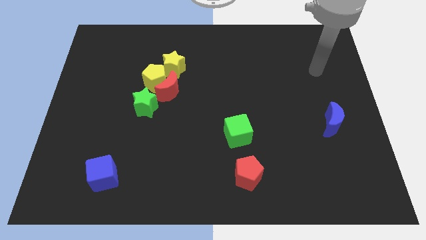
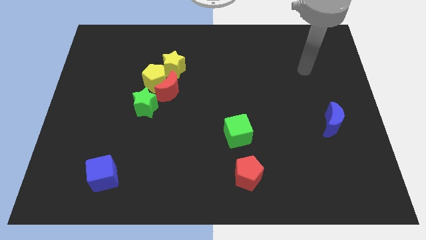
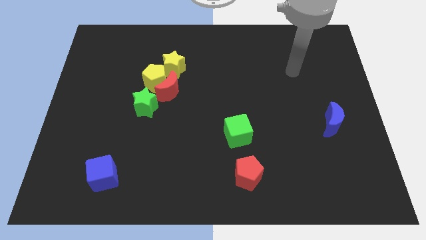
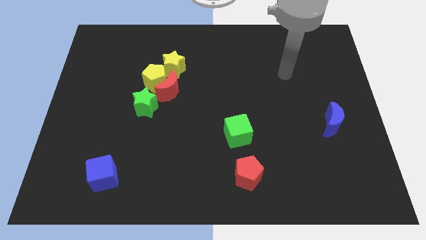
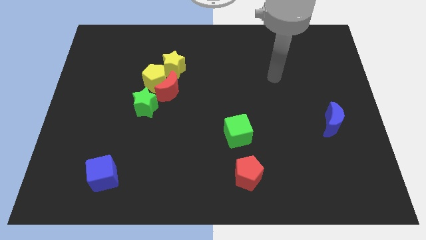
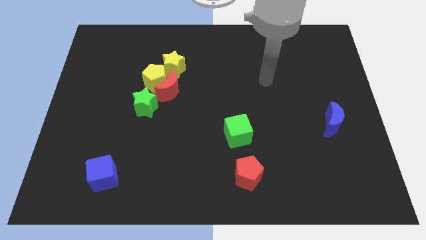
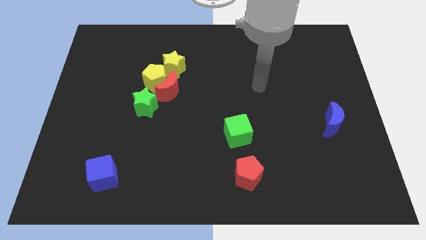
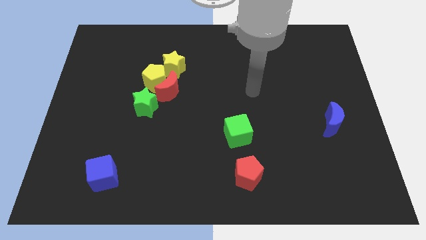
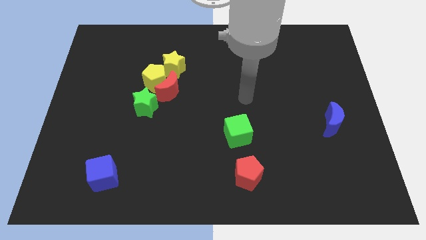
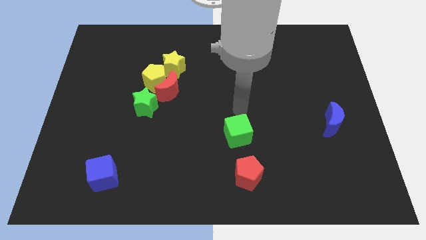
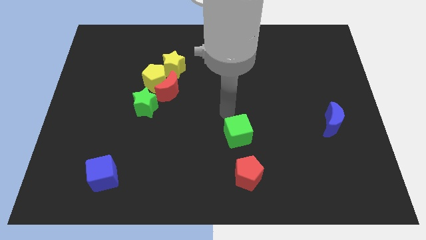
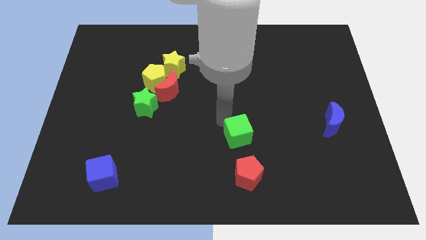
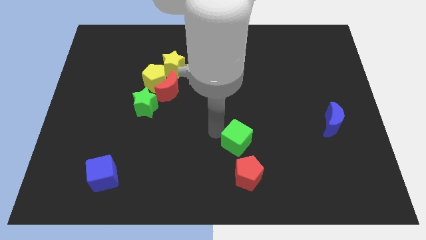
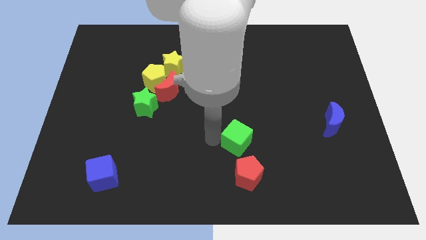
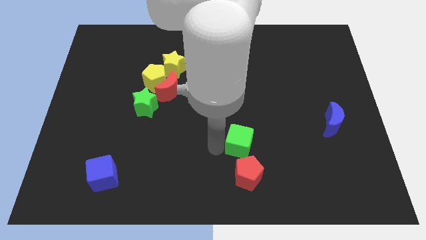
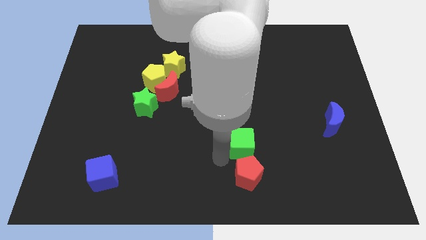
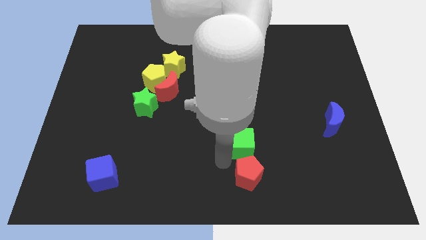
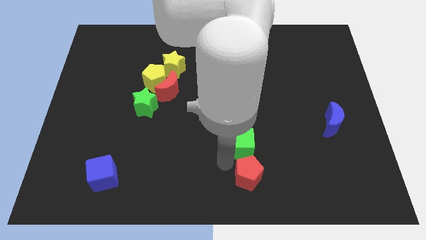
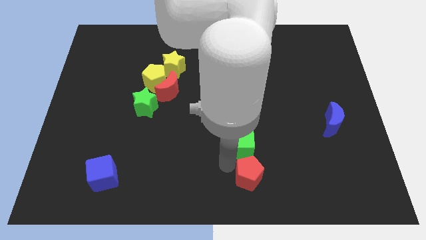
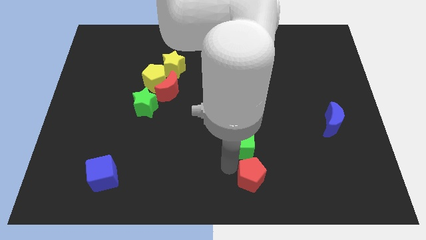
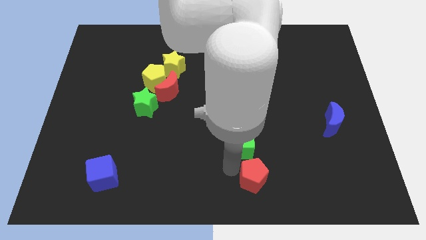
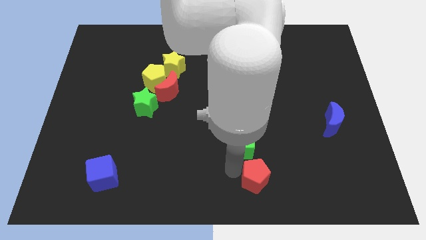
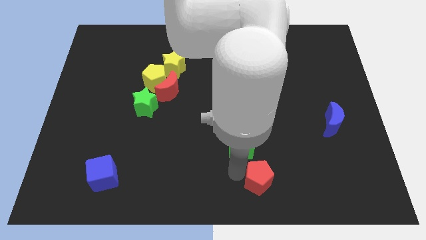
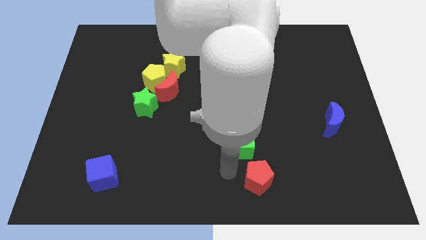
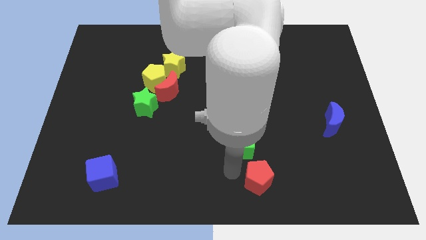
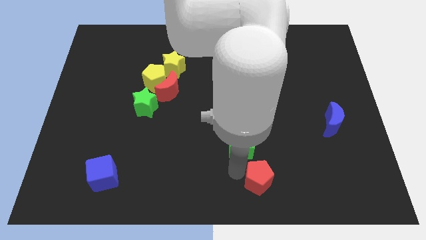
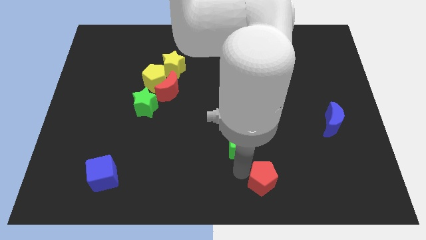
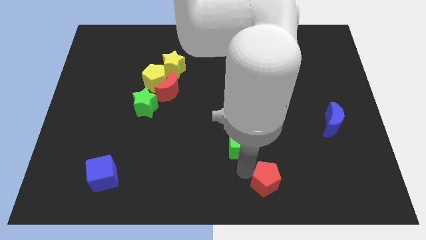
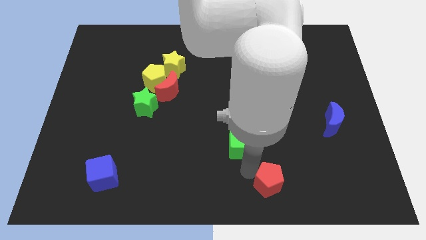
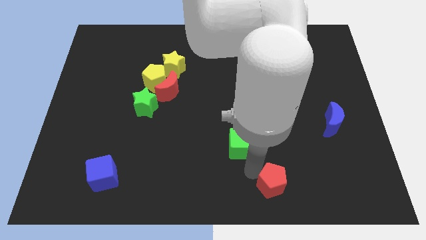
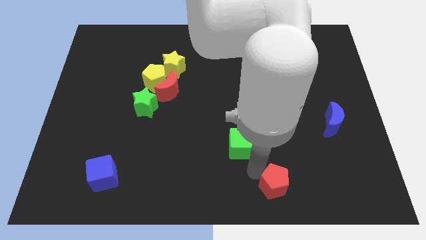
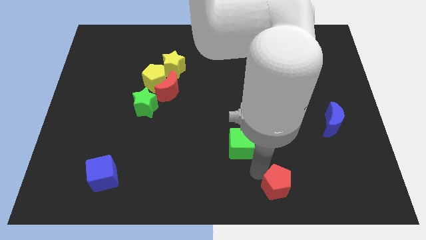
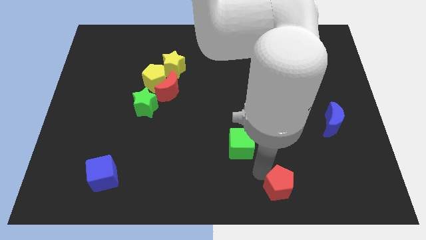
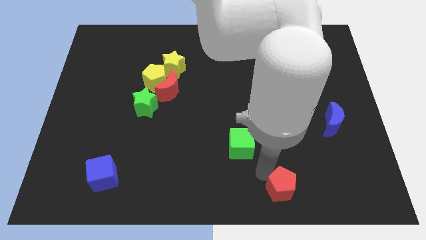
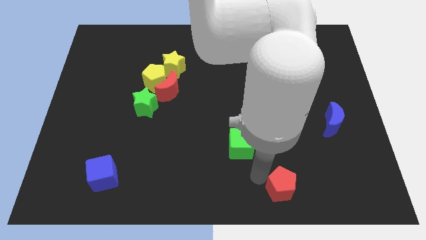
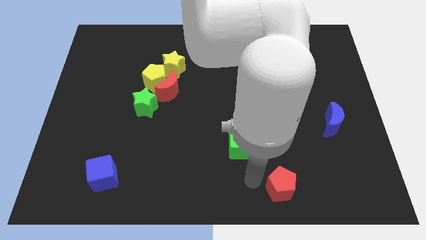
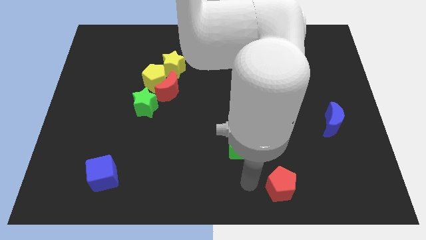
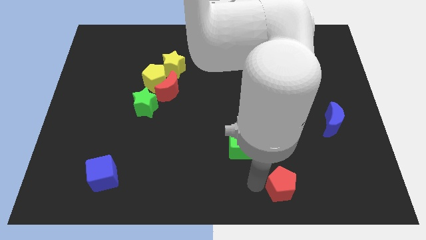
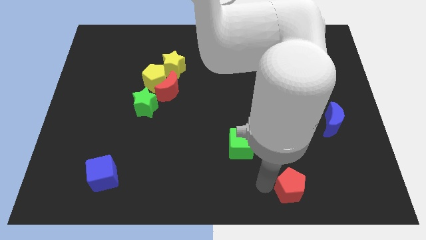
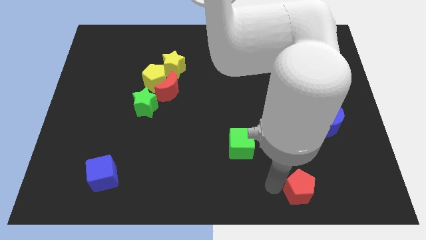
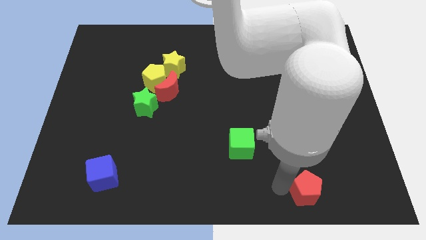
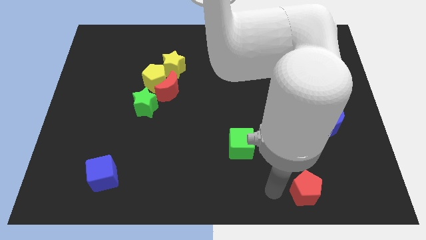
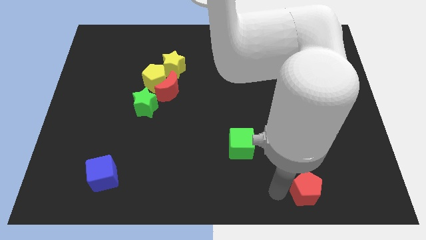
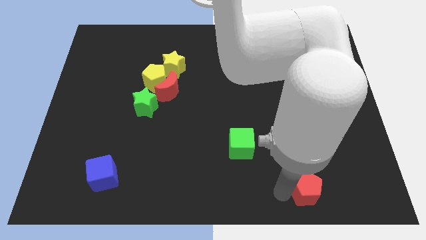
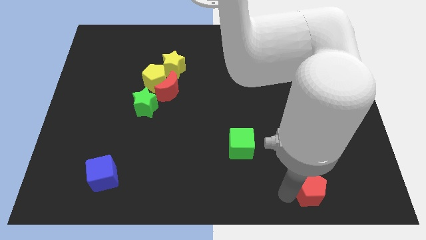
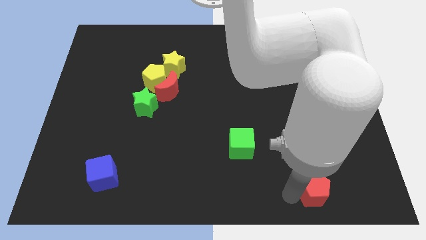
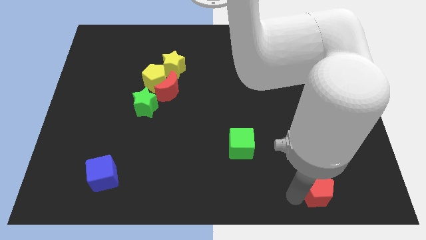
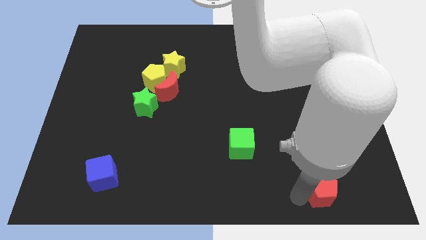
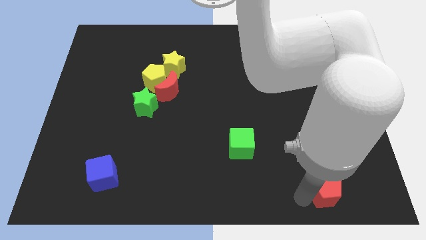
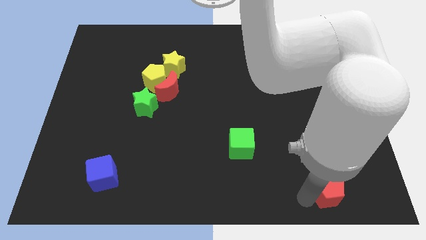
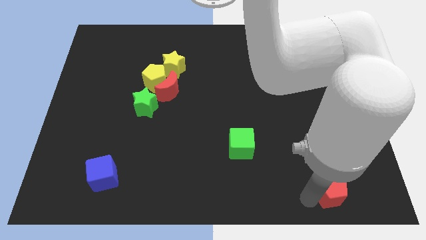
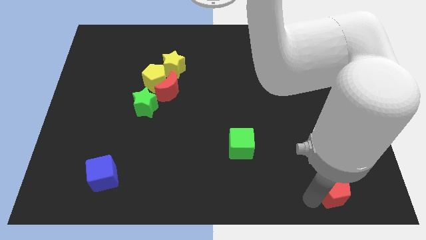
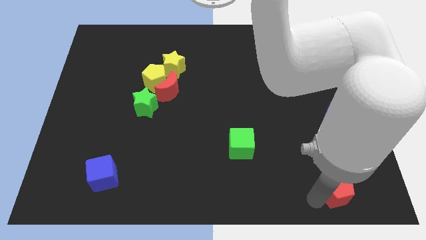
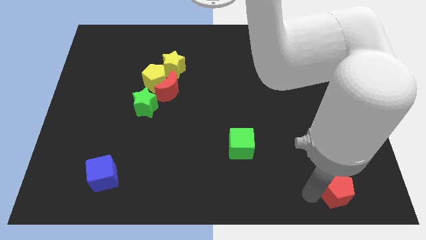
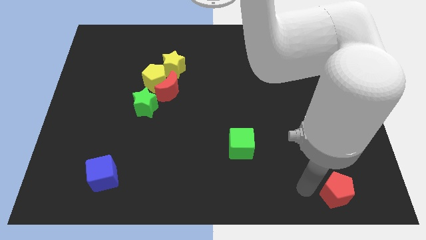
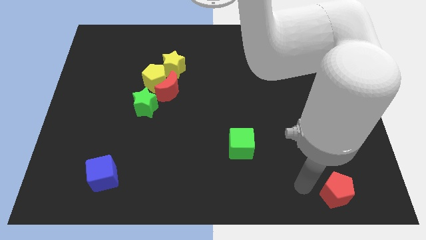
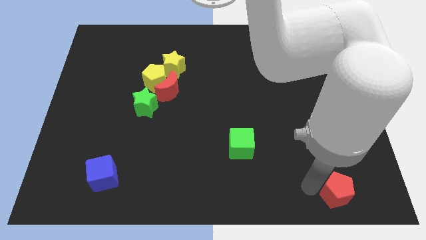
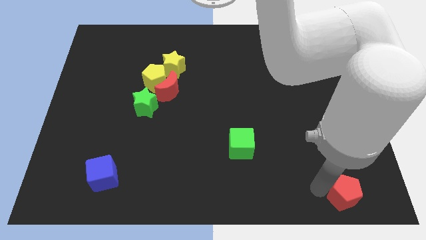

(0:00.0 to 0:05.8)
slide the red pentagon to the lower right corner
